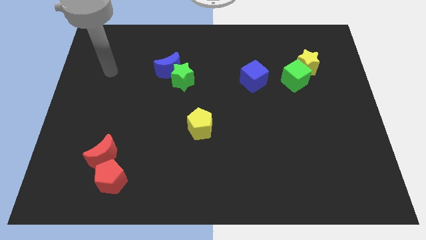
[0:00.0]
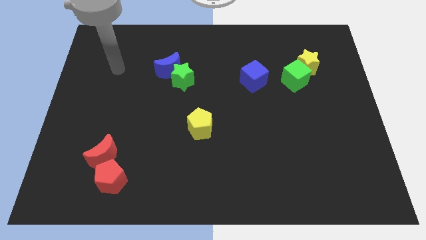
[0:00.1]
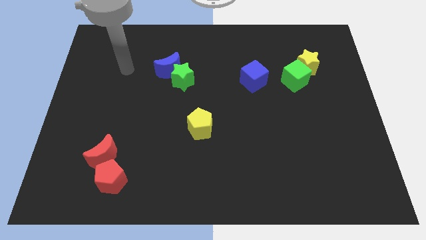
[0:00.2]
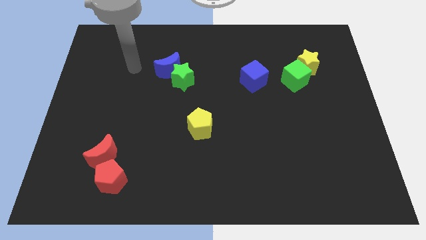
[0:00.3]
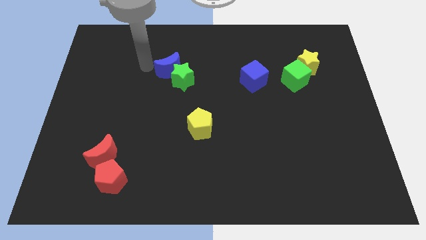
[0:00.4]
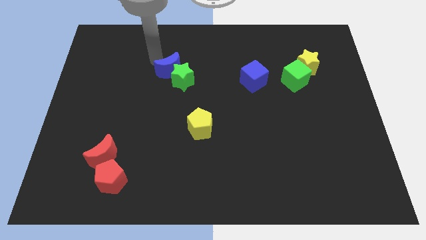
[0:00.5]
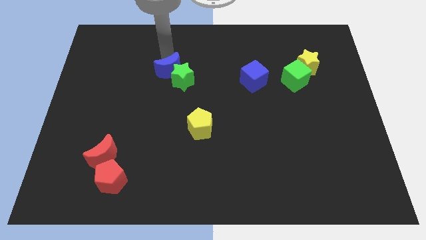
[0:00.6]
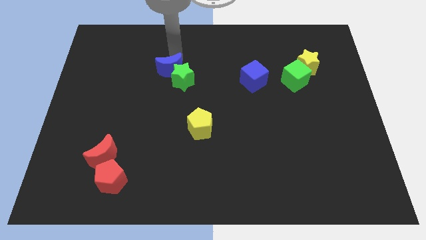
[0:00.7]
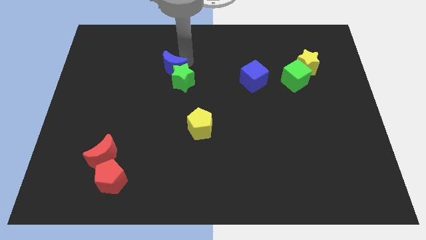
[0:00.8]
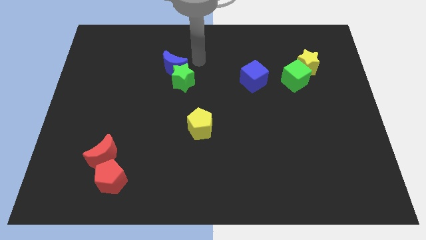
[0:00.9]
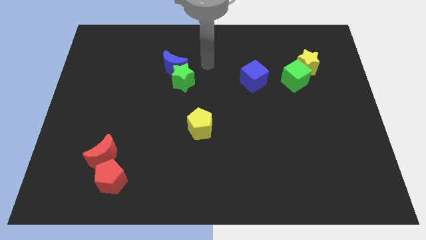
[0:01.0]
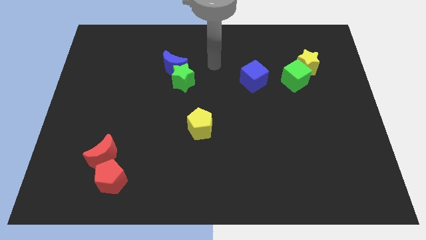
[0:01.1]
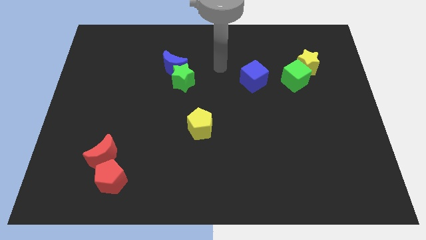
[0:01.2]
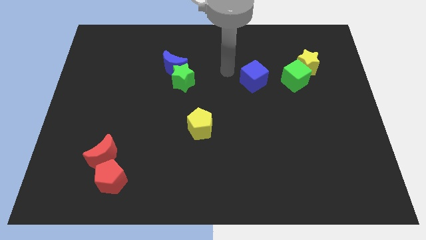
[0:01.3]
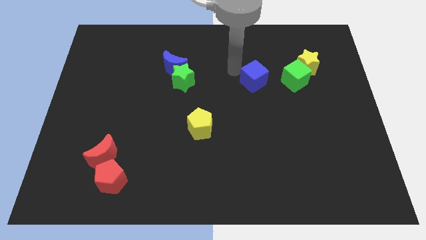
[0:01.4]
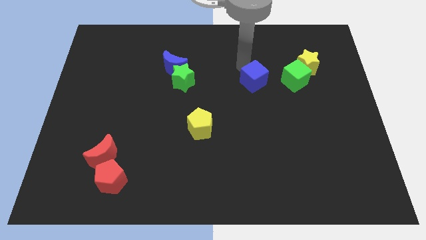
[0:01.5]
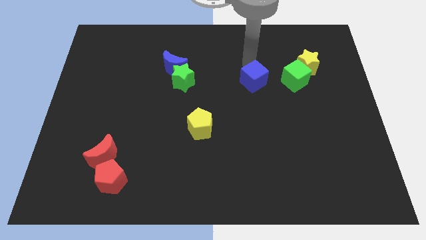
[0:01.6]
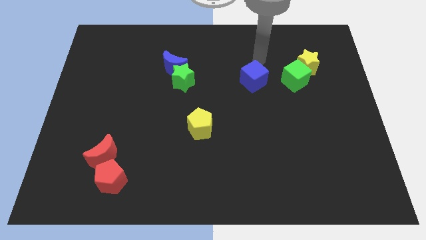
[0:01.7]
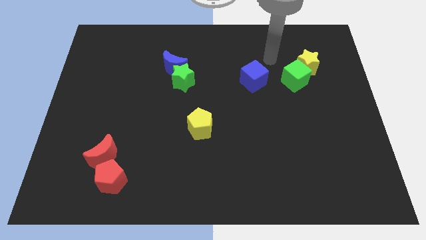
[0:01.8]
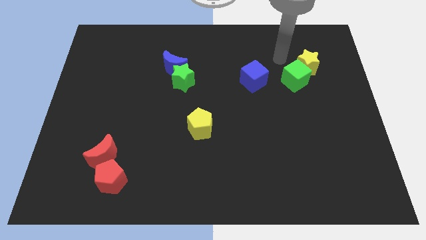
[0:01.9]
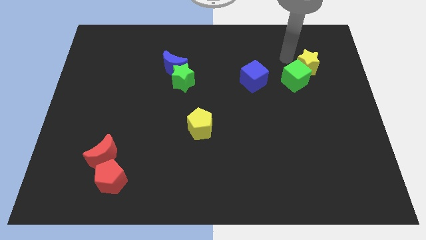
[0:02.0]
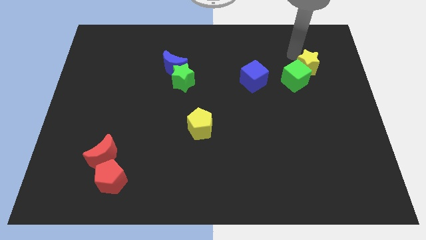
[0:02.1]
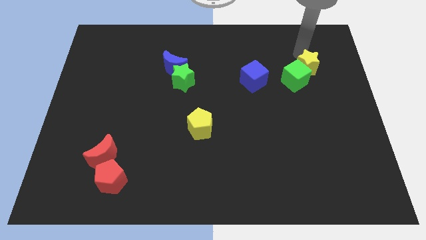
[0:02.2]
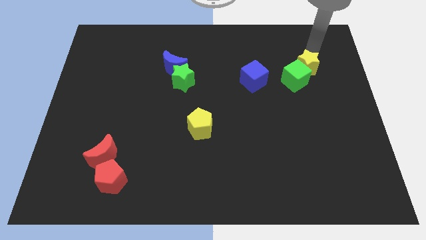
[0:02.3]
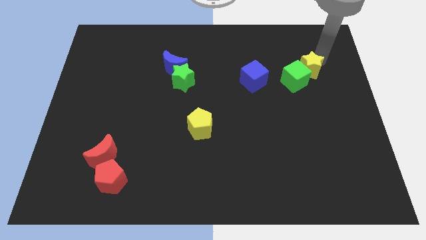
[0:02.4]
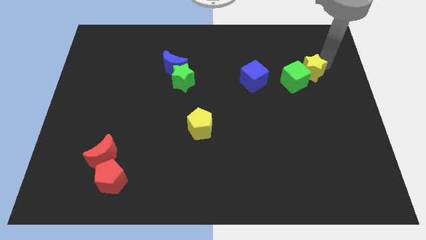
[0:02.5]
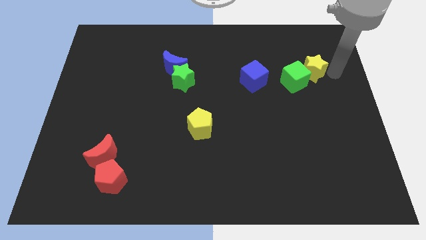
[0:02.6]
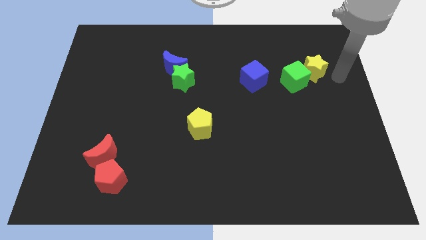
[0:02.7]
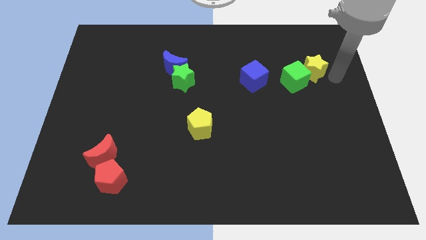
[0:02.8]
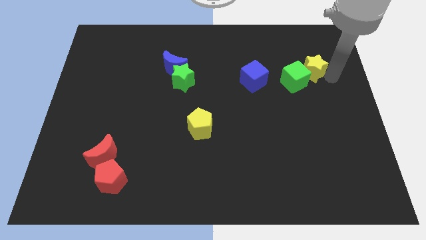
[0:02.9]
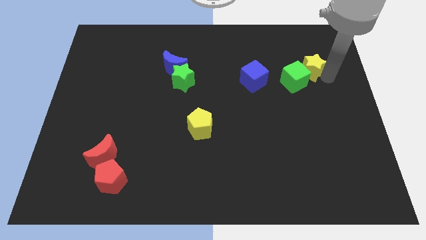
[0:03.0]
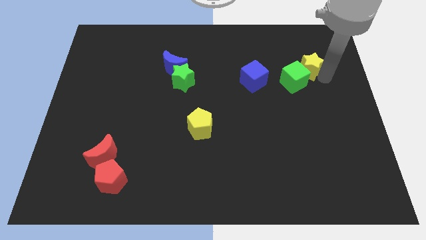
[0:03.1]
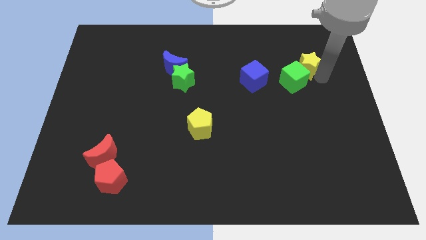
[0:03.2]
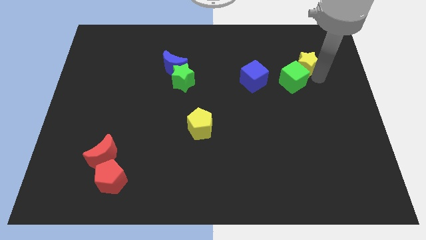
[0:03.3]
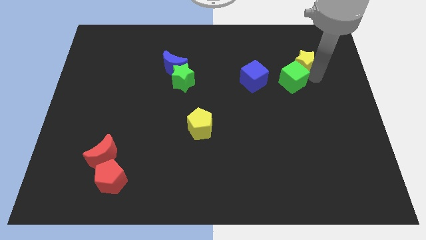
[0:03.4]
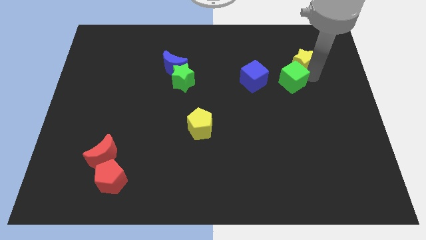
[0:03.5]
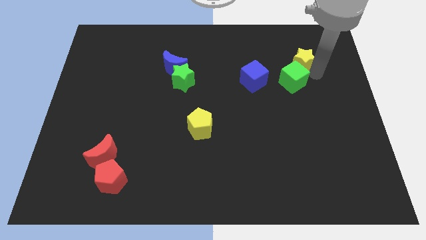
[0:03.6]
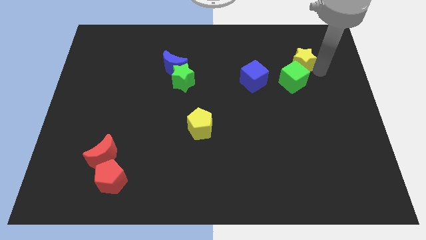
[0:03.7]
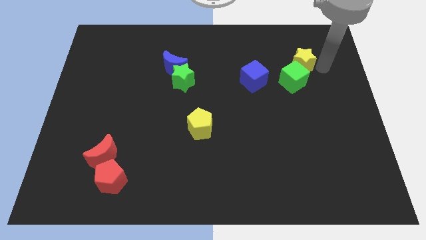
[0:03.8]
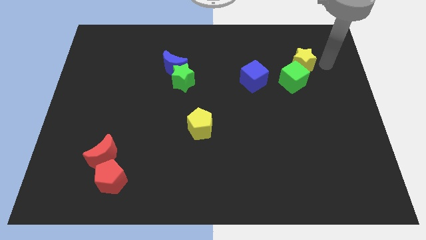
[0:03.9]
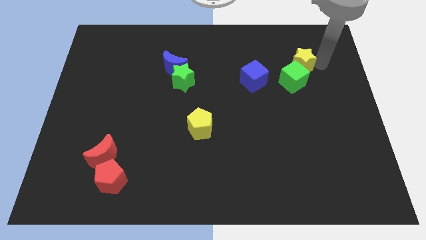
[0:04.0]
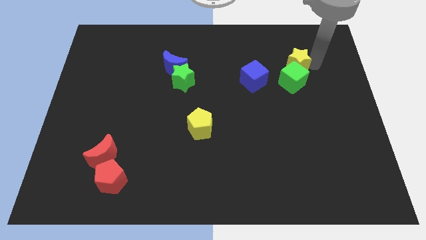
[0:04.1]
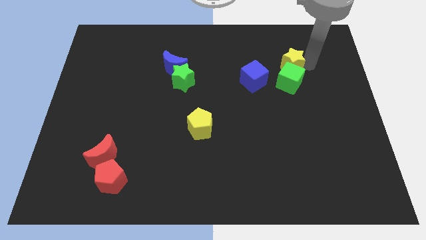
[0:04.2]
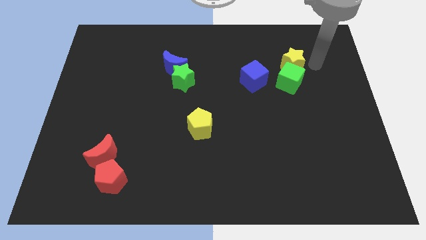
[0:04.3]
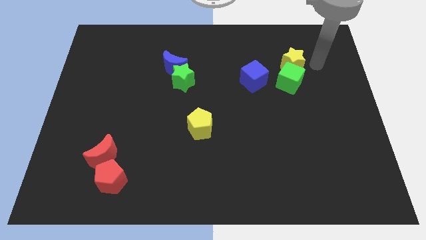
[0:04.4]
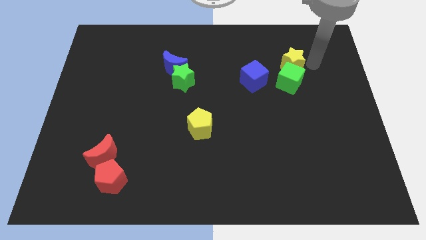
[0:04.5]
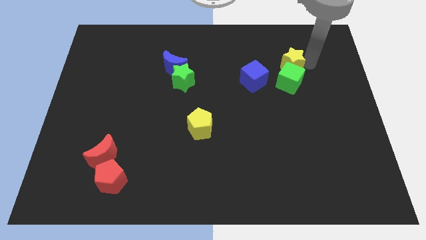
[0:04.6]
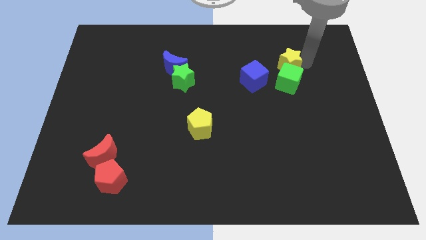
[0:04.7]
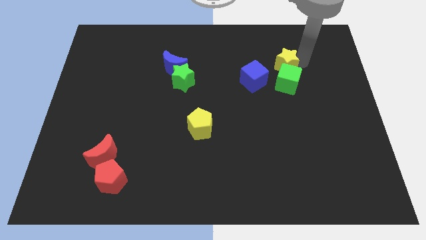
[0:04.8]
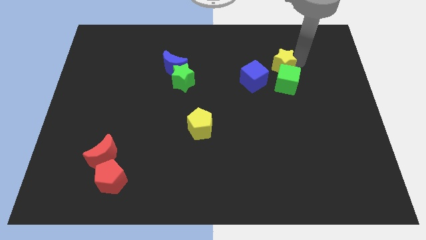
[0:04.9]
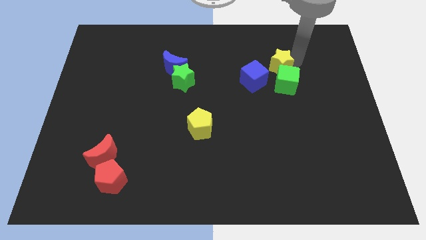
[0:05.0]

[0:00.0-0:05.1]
push the yellow star somewhat to the left

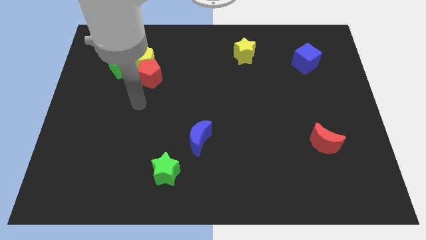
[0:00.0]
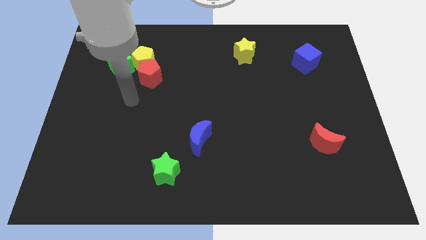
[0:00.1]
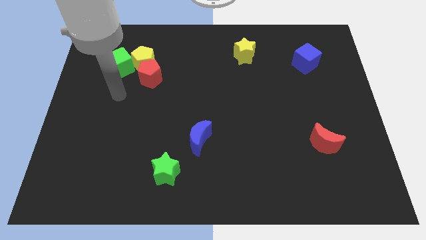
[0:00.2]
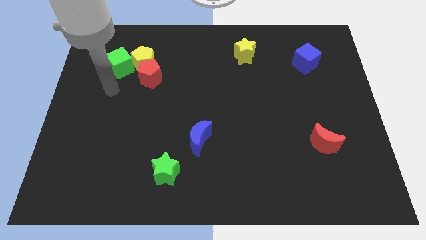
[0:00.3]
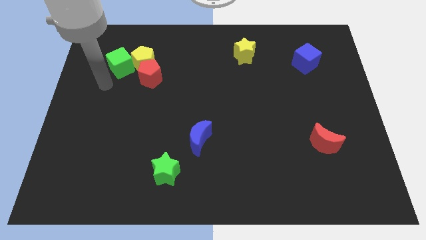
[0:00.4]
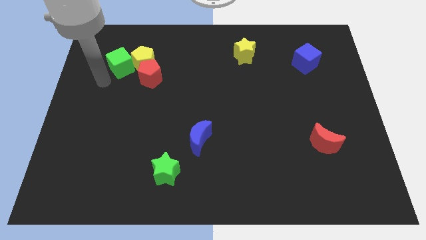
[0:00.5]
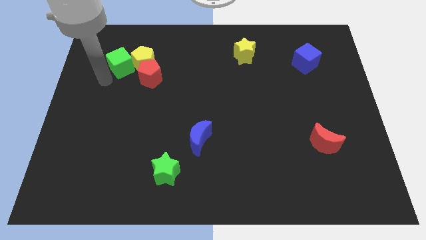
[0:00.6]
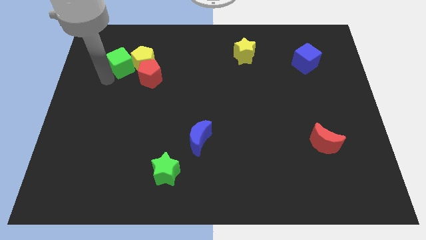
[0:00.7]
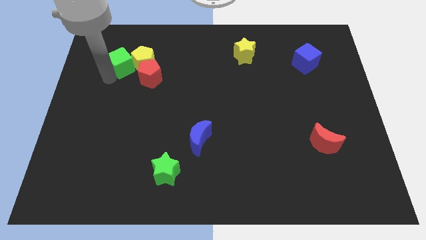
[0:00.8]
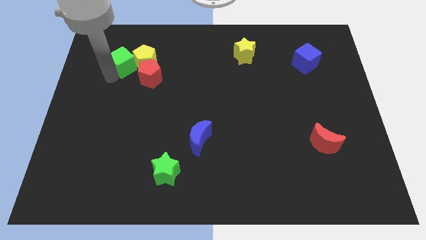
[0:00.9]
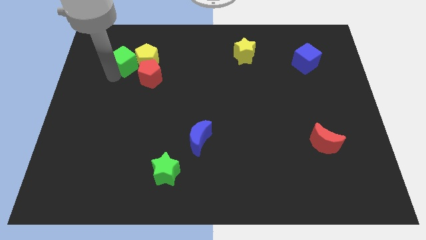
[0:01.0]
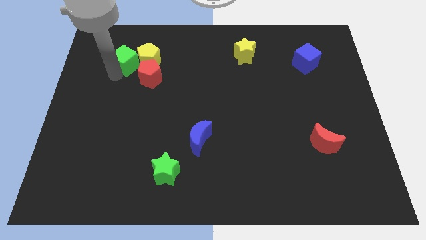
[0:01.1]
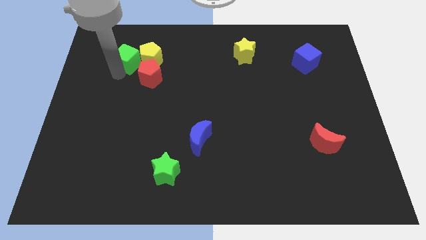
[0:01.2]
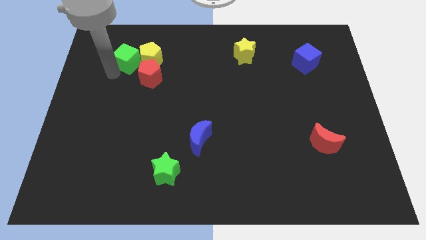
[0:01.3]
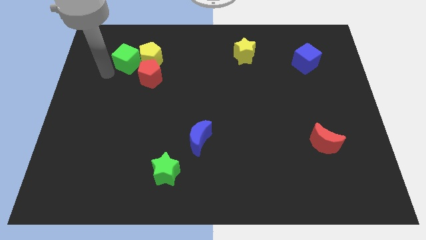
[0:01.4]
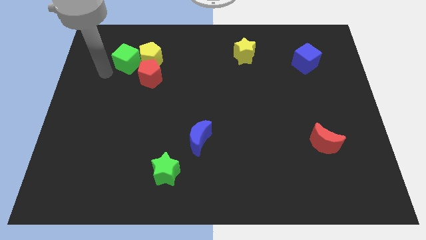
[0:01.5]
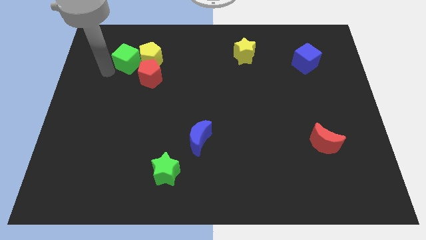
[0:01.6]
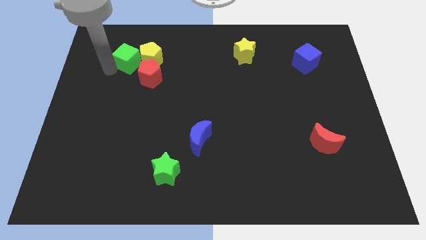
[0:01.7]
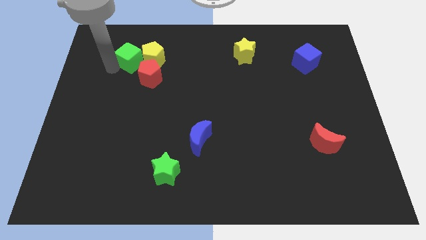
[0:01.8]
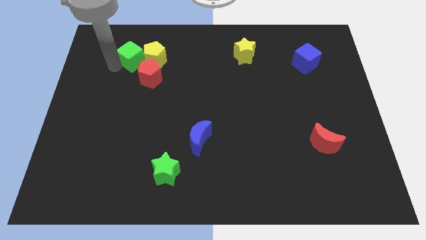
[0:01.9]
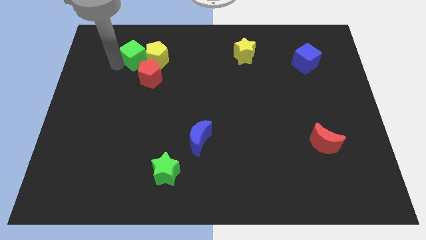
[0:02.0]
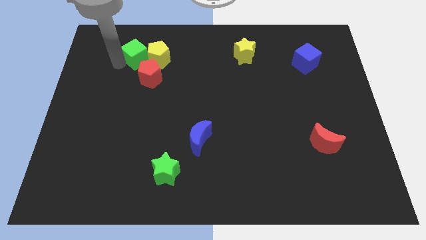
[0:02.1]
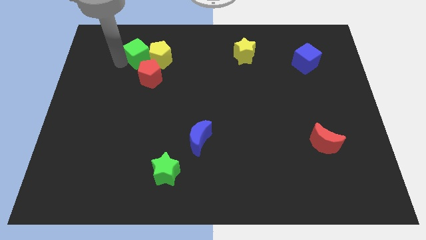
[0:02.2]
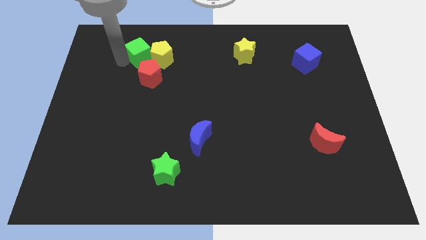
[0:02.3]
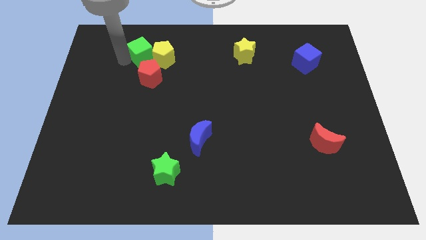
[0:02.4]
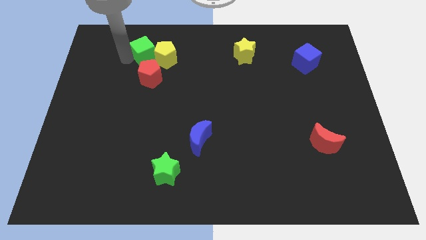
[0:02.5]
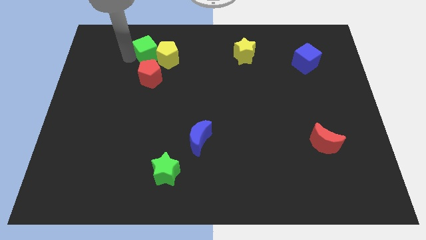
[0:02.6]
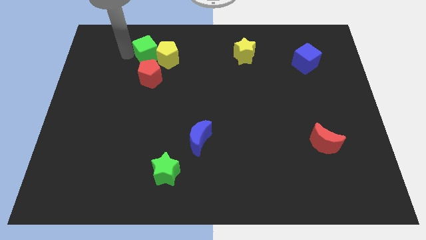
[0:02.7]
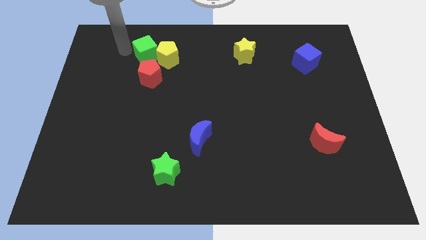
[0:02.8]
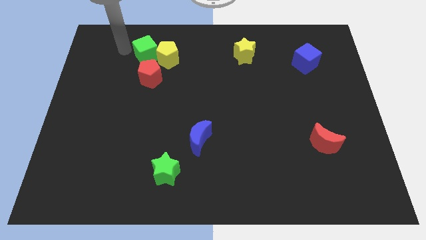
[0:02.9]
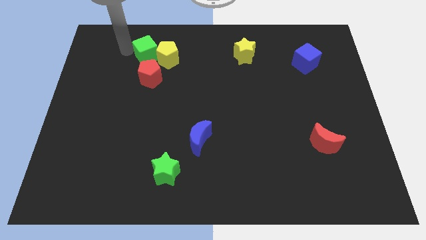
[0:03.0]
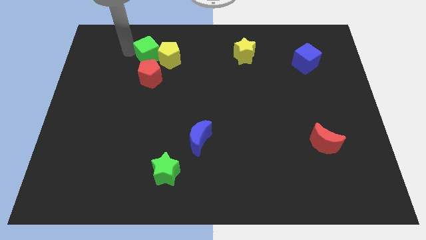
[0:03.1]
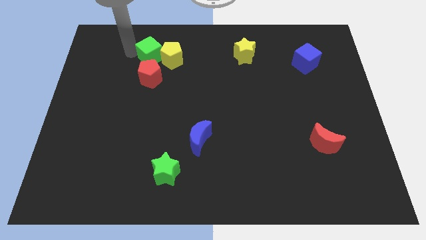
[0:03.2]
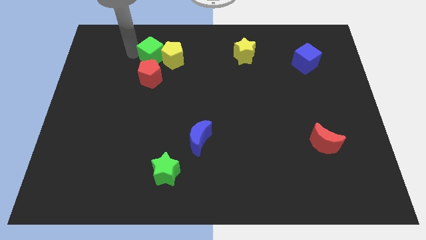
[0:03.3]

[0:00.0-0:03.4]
push the green cube slightly right

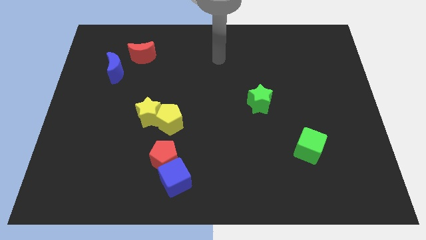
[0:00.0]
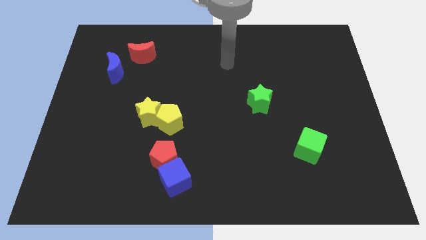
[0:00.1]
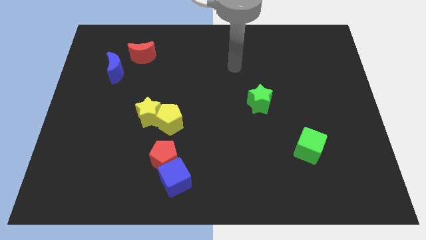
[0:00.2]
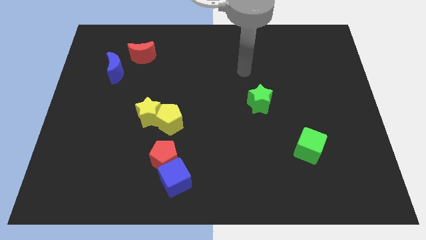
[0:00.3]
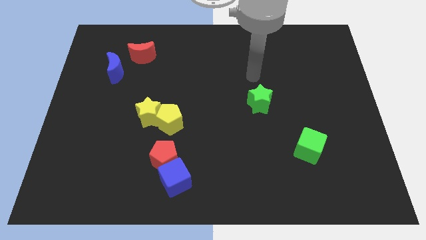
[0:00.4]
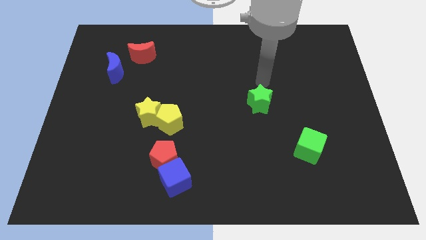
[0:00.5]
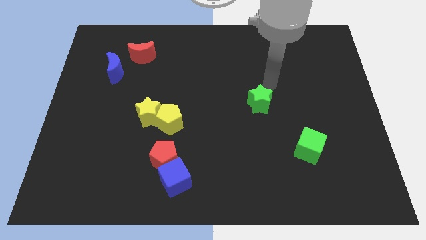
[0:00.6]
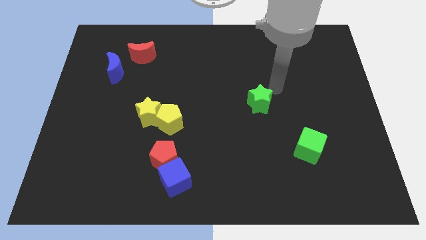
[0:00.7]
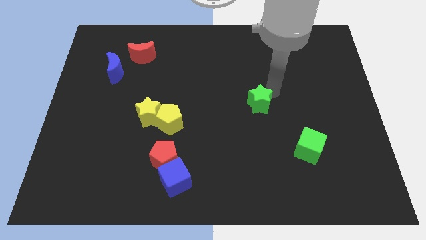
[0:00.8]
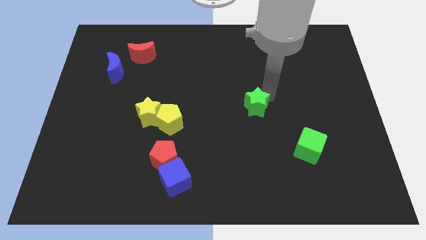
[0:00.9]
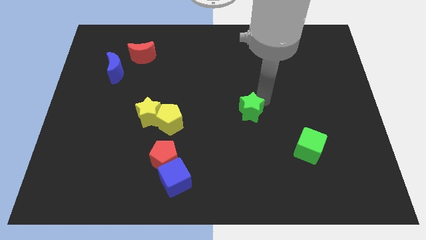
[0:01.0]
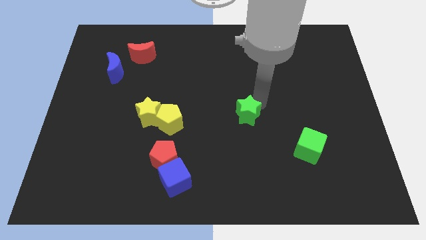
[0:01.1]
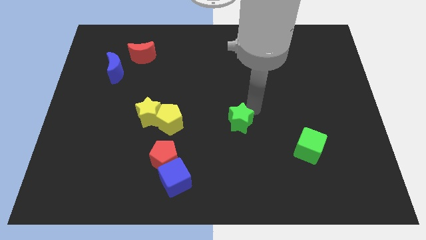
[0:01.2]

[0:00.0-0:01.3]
slide the green star down and then to the left slightly
